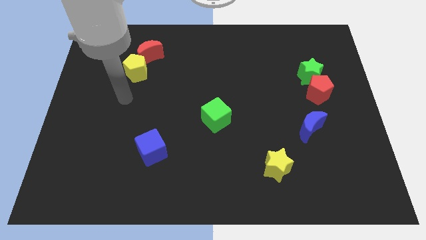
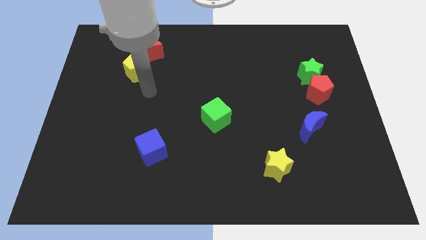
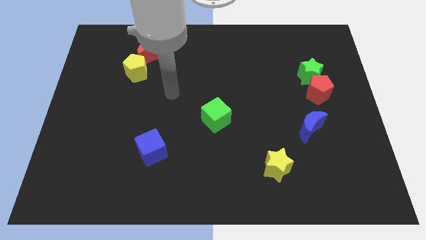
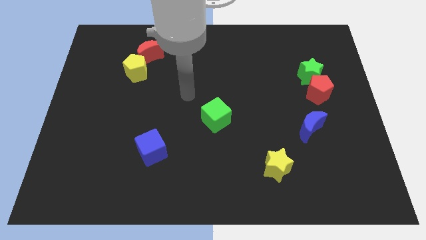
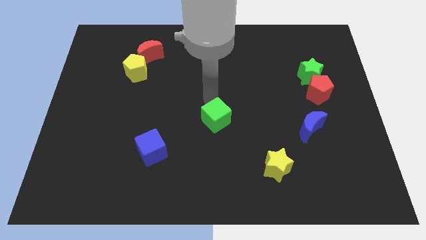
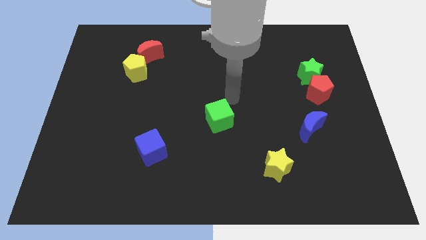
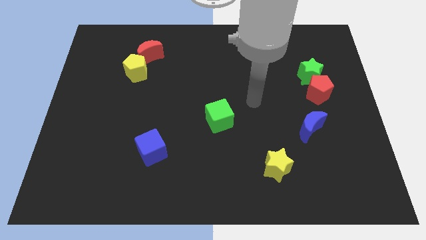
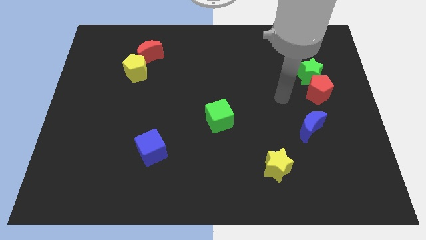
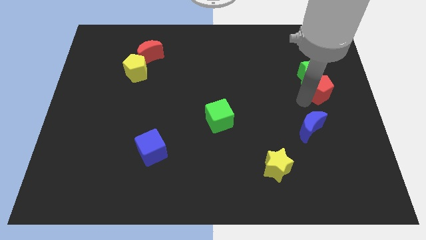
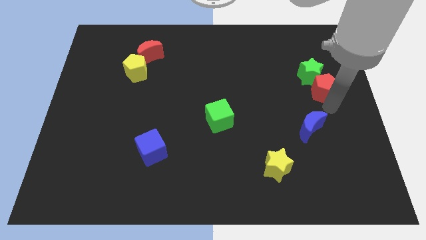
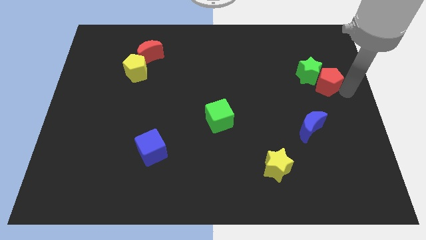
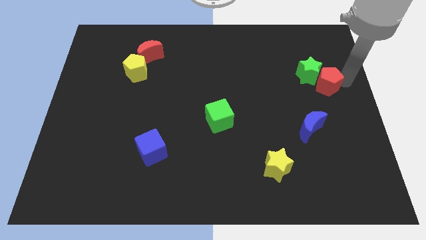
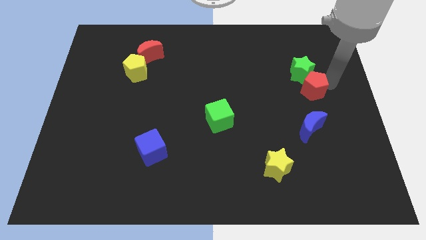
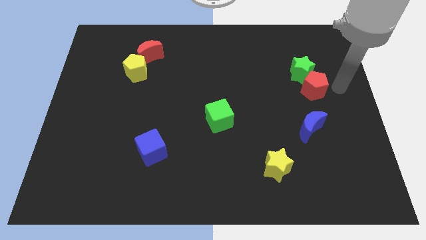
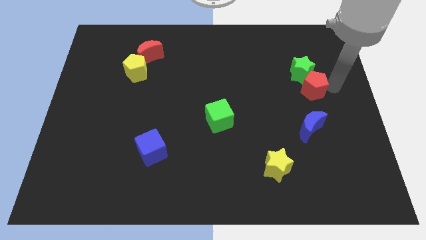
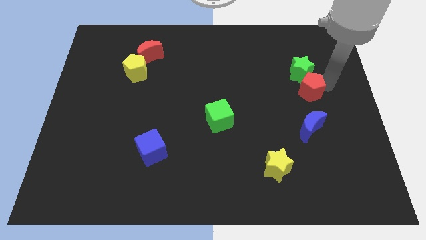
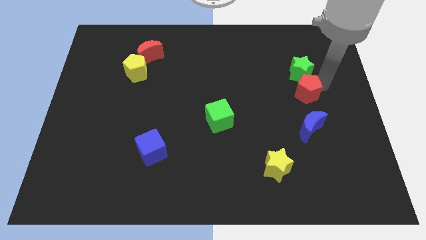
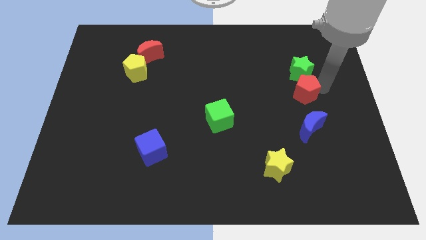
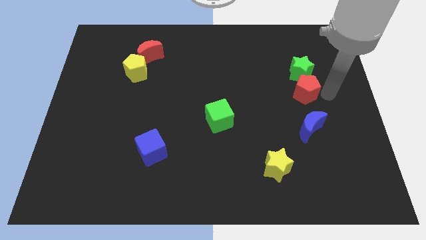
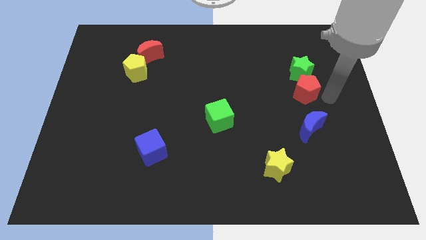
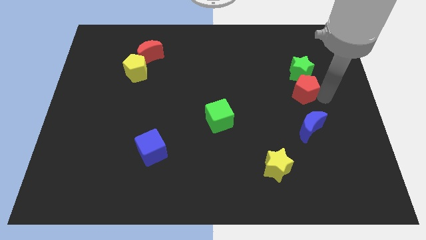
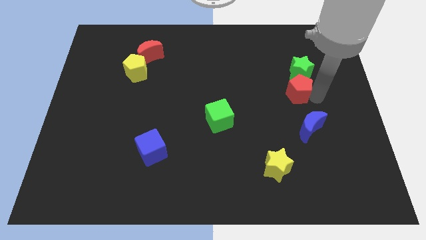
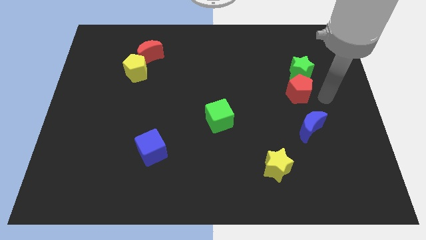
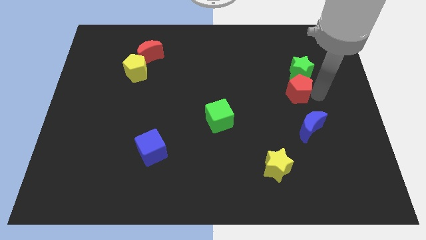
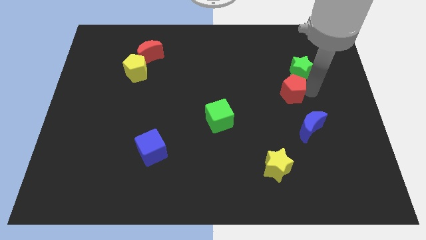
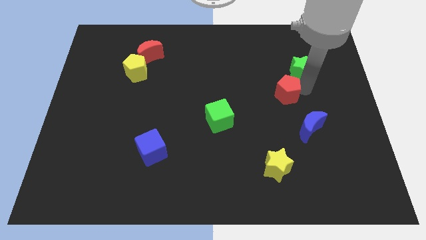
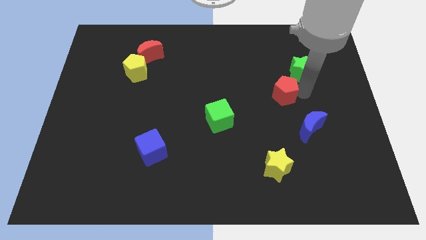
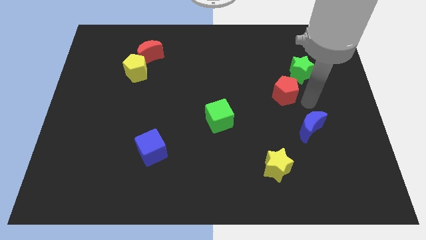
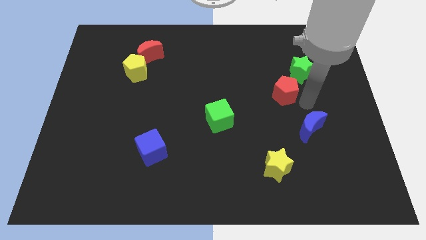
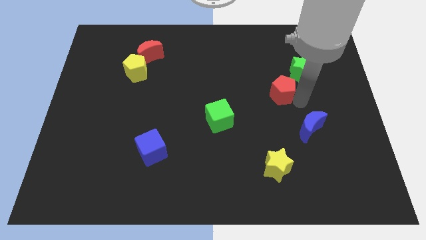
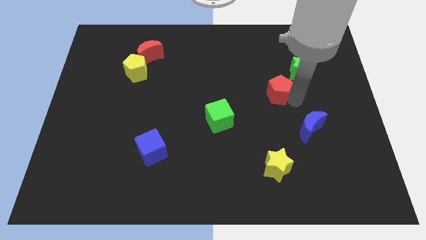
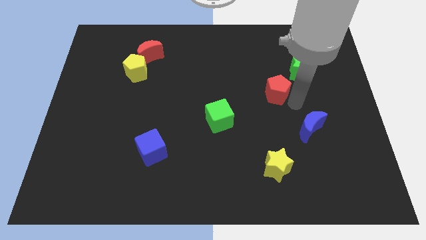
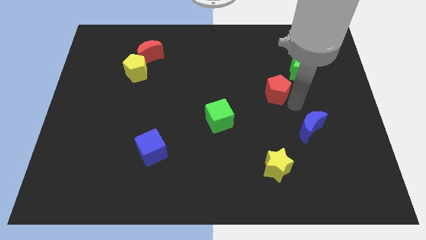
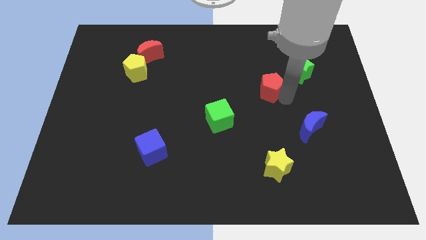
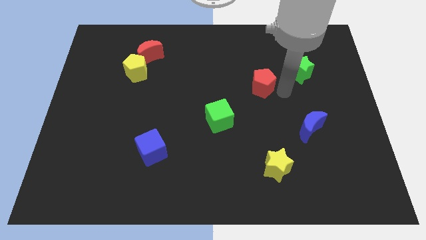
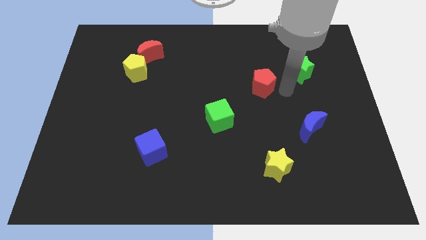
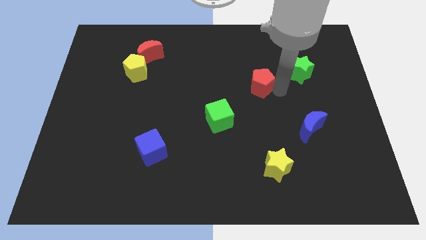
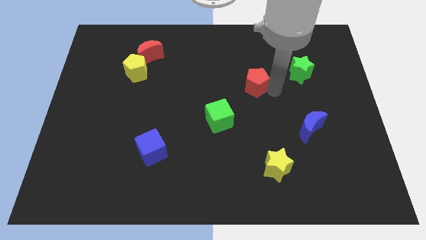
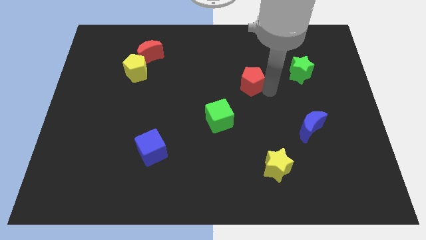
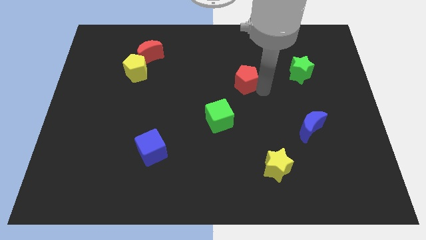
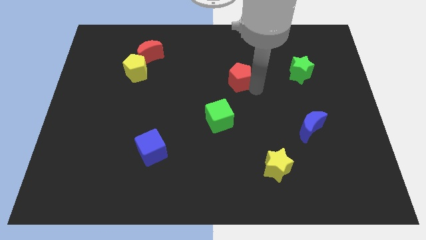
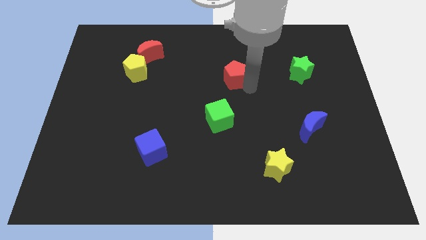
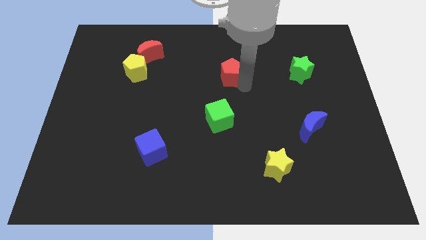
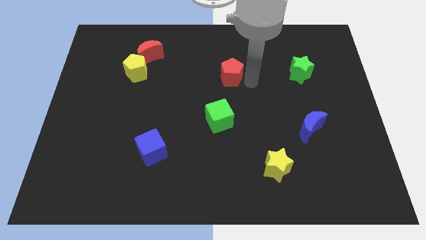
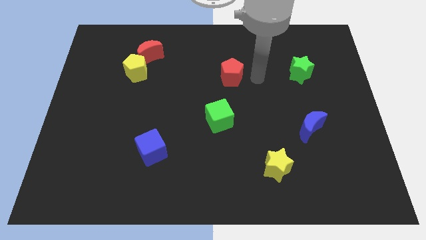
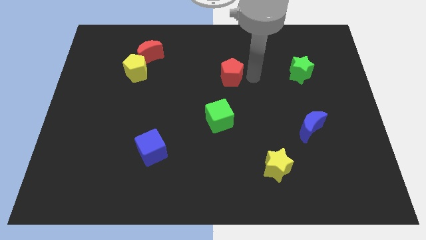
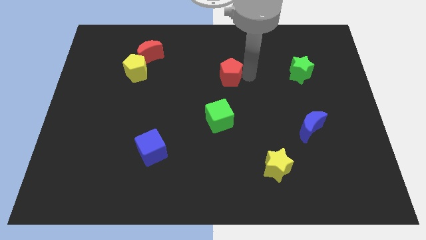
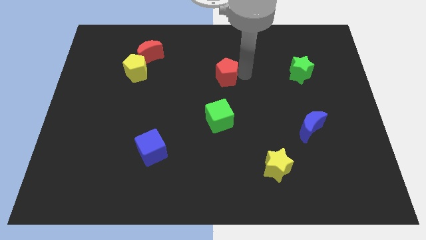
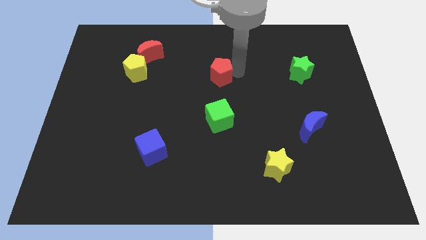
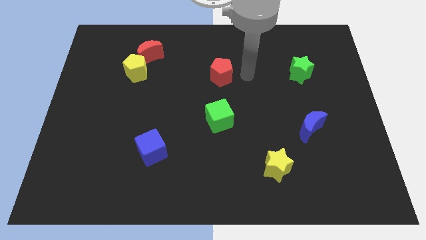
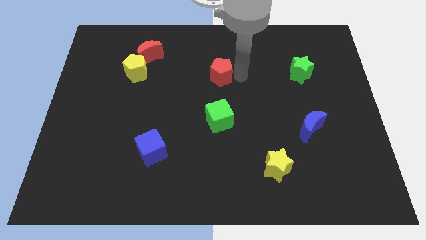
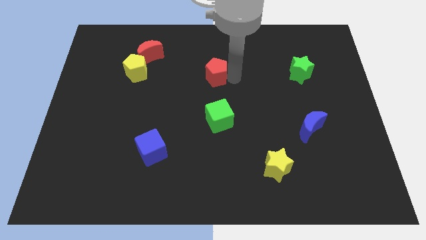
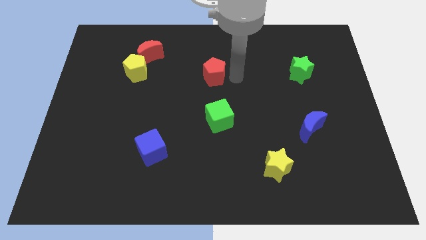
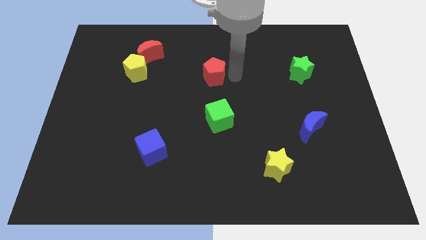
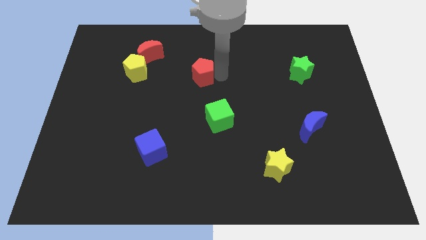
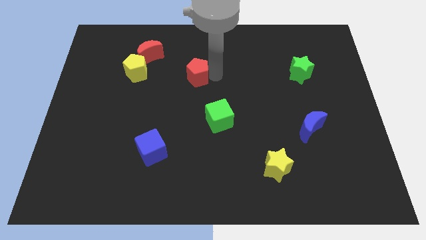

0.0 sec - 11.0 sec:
put the red pentagon right of the yellow pentagon

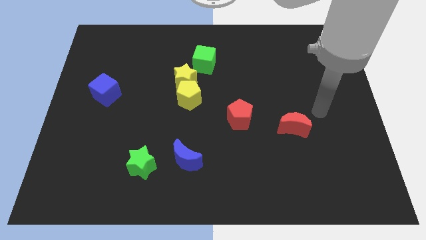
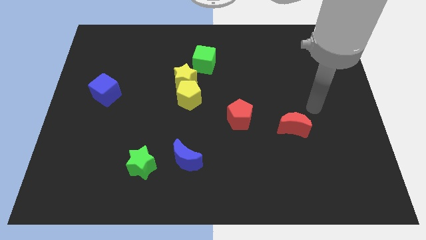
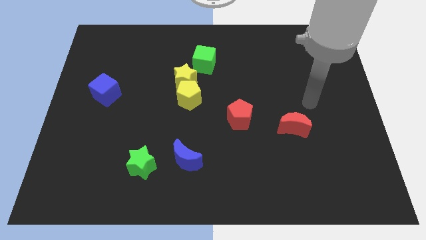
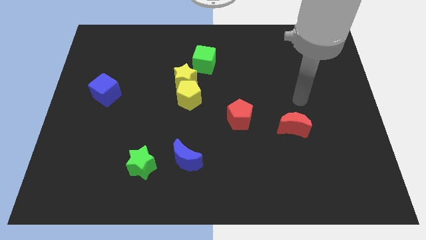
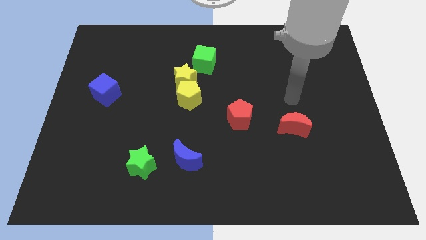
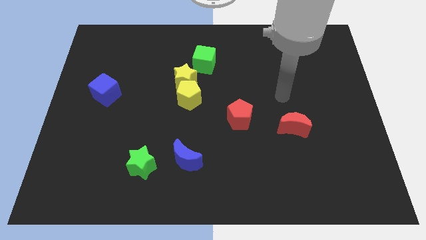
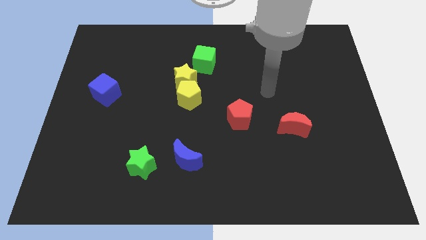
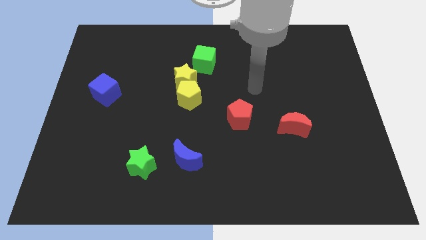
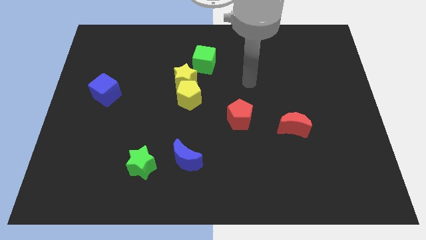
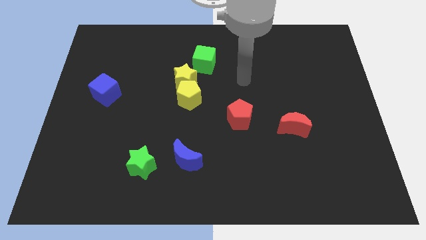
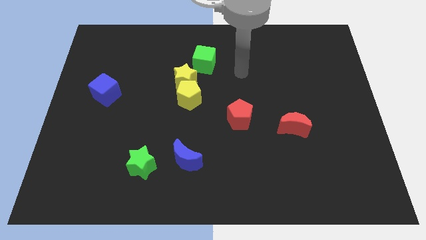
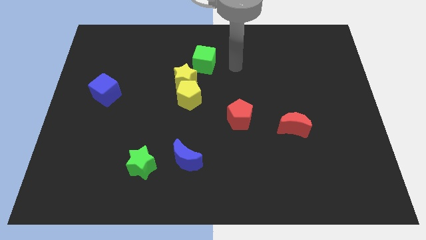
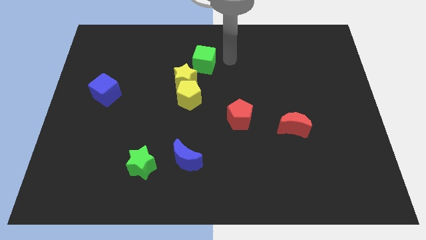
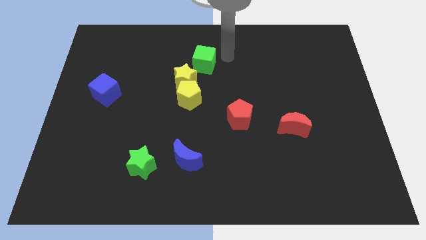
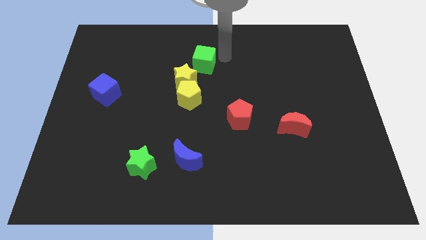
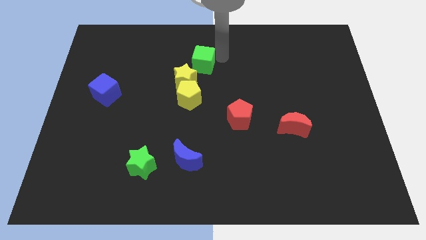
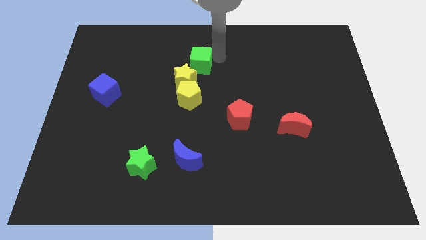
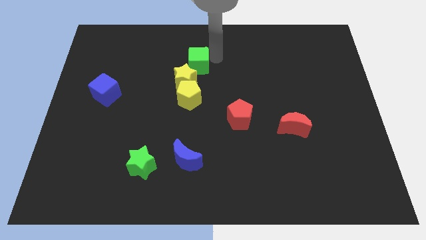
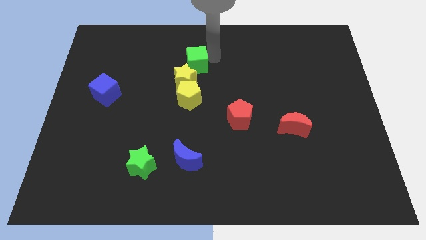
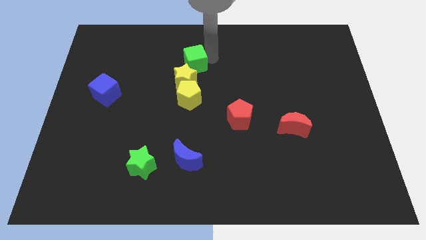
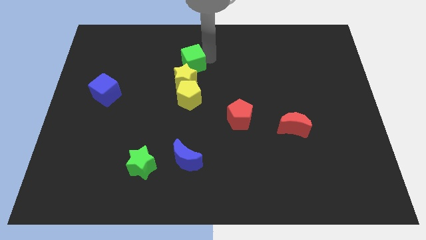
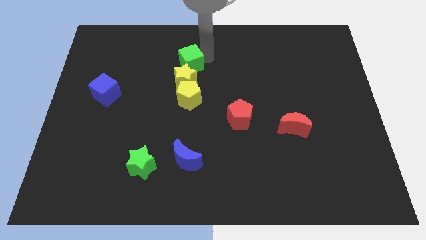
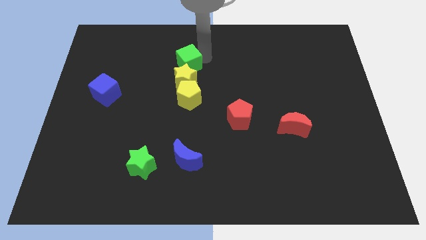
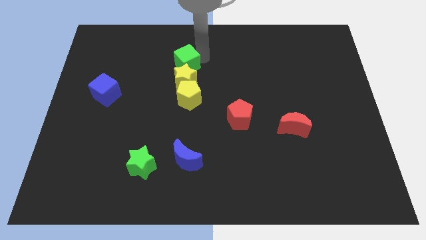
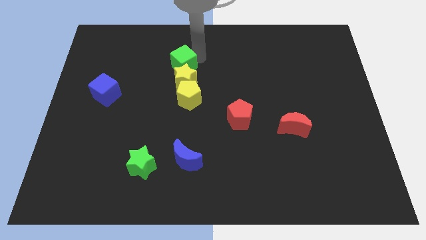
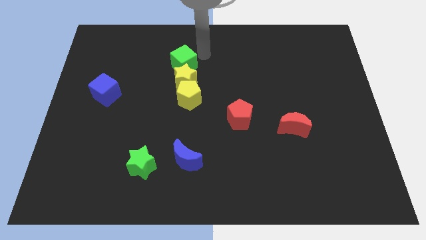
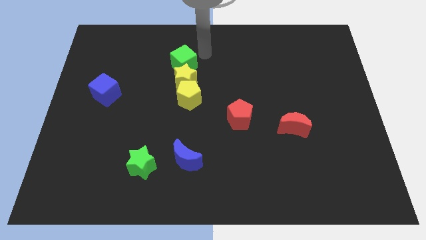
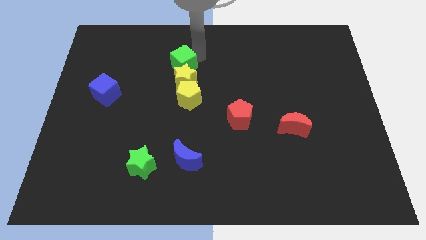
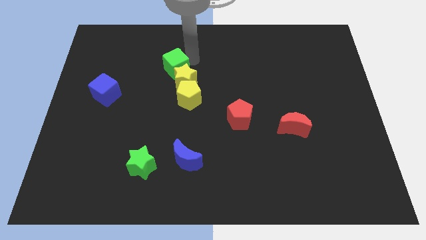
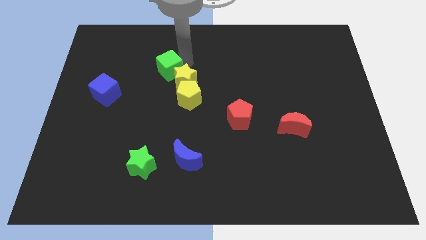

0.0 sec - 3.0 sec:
put the green cube left of the yellow star

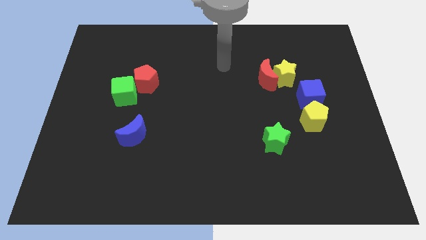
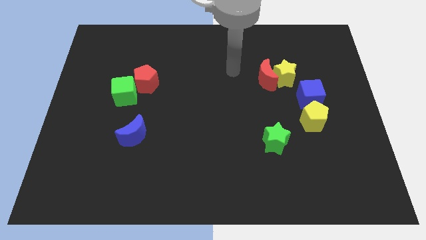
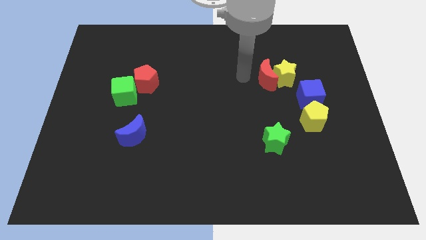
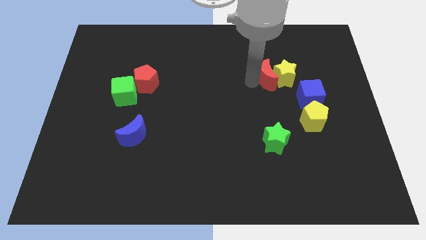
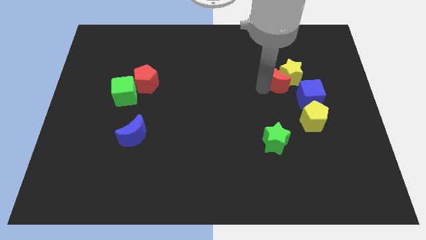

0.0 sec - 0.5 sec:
move the yellow star to the top side of the blue cube
